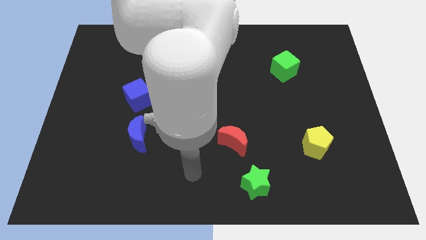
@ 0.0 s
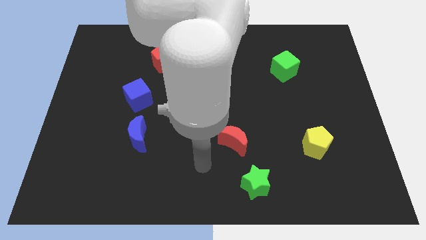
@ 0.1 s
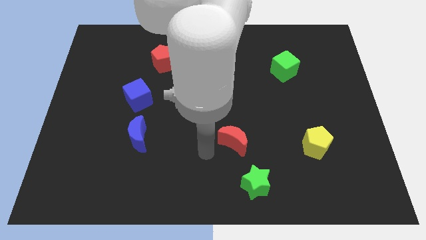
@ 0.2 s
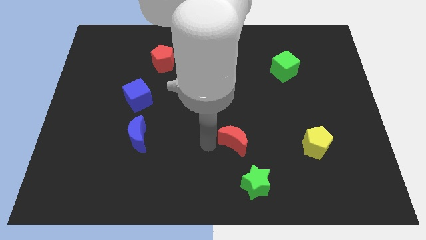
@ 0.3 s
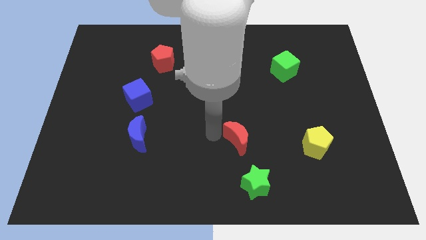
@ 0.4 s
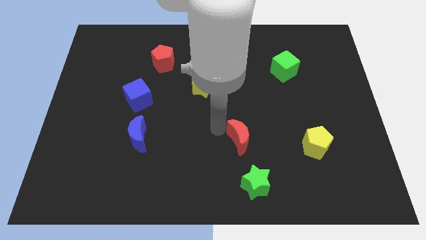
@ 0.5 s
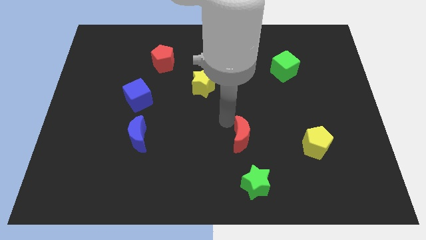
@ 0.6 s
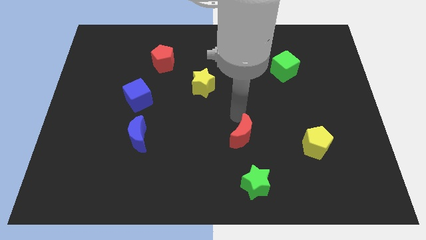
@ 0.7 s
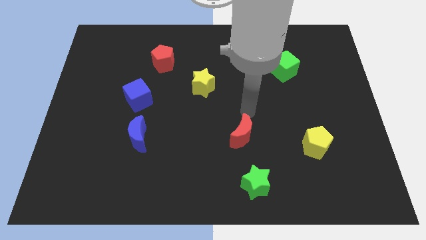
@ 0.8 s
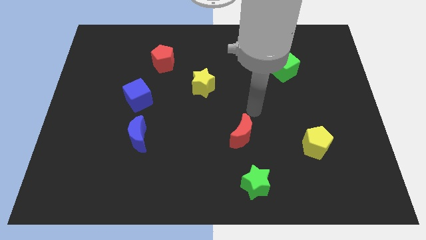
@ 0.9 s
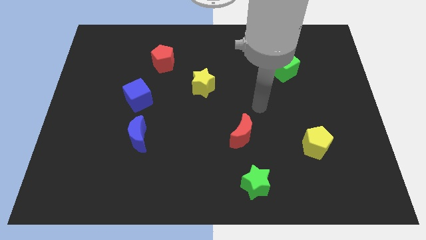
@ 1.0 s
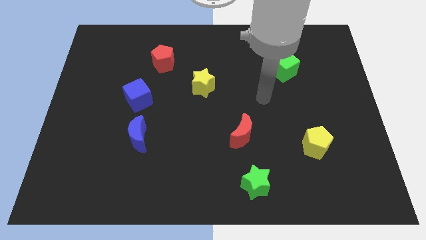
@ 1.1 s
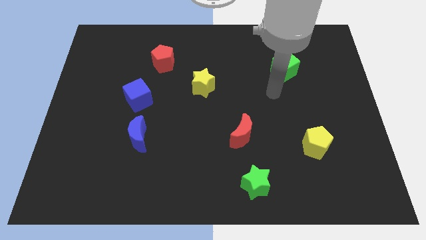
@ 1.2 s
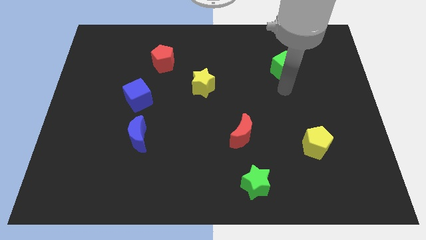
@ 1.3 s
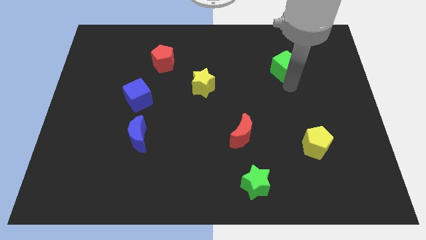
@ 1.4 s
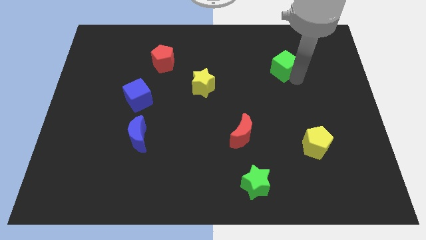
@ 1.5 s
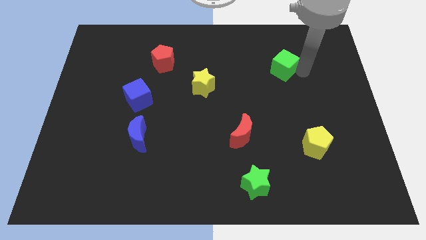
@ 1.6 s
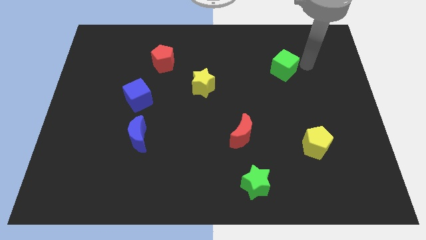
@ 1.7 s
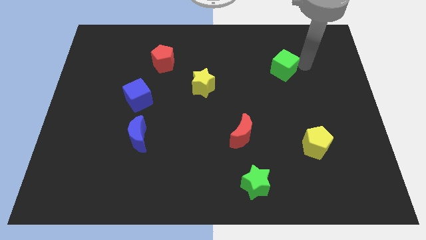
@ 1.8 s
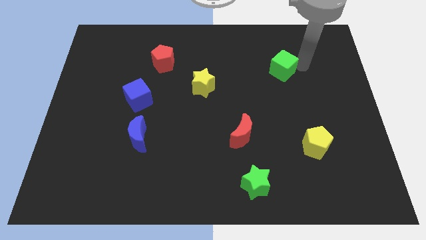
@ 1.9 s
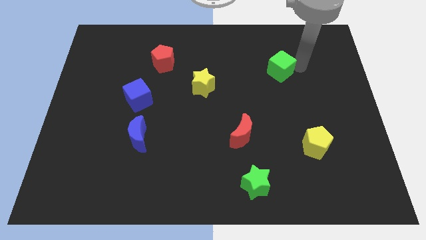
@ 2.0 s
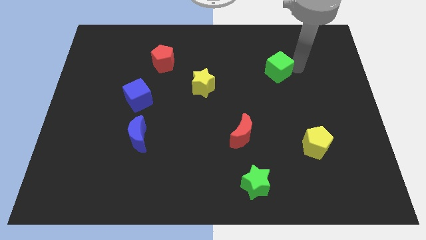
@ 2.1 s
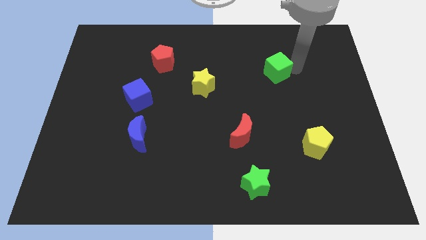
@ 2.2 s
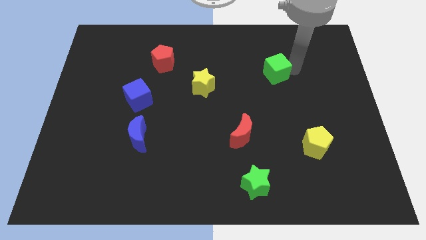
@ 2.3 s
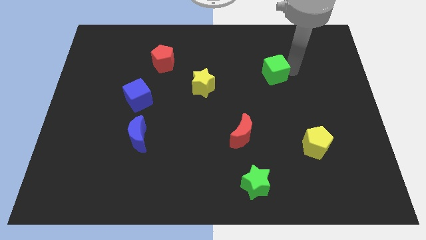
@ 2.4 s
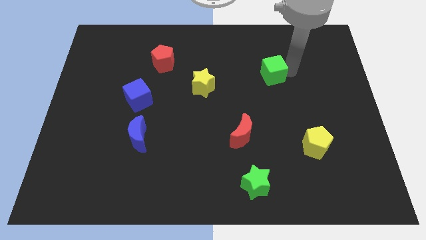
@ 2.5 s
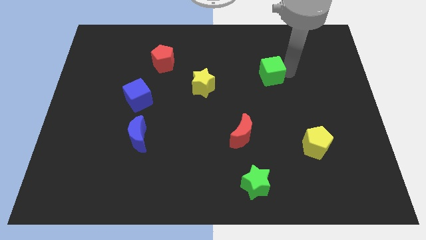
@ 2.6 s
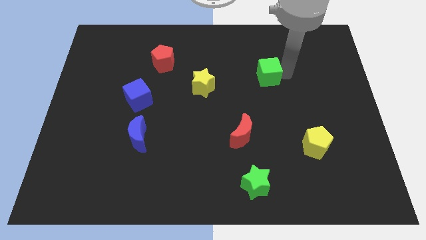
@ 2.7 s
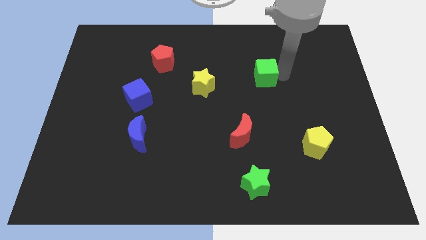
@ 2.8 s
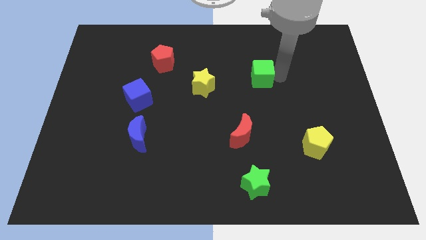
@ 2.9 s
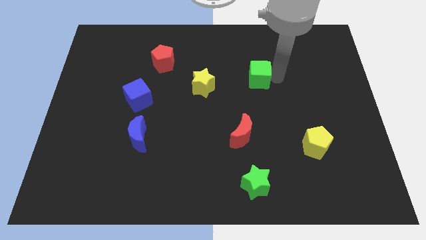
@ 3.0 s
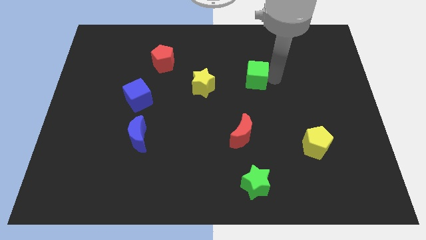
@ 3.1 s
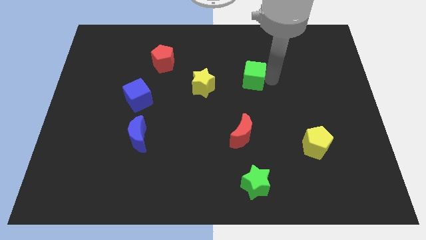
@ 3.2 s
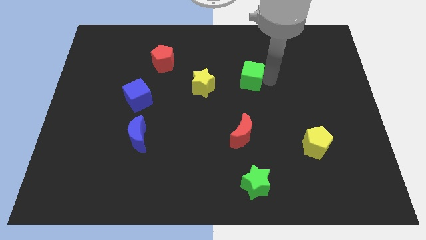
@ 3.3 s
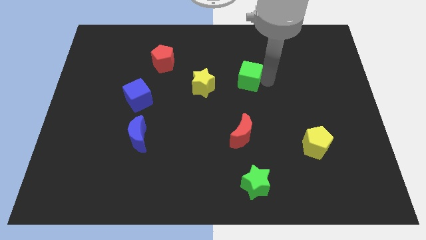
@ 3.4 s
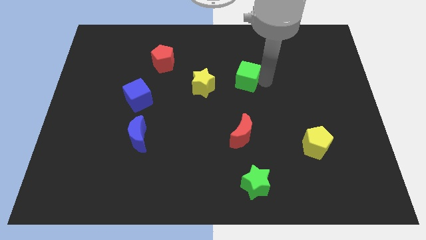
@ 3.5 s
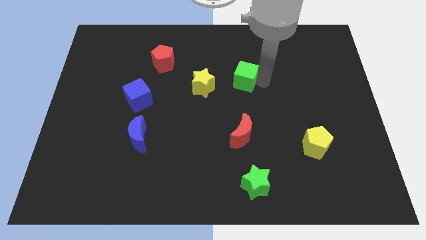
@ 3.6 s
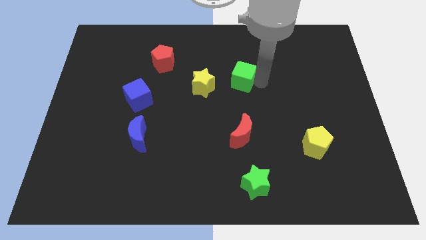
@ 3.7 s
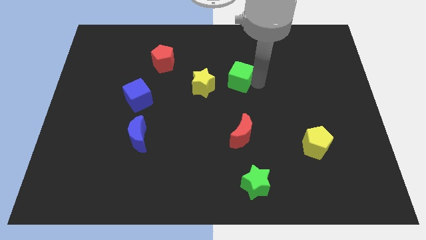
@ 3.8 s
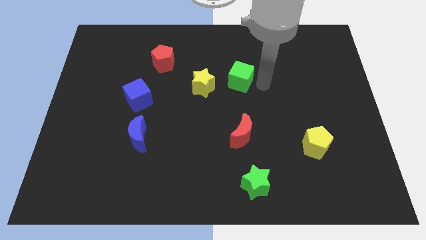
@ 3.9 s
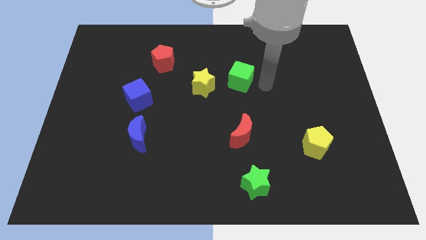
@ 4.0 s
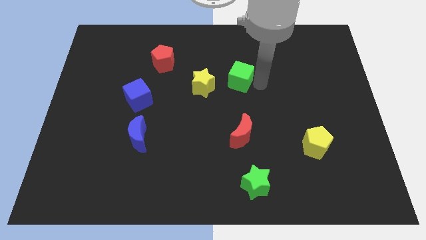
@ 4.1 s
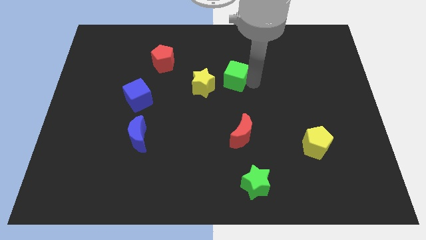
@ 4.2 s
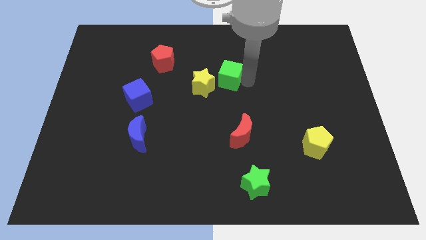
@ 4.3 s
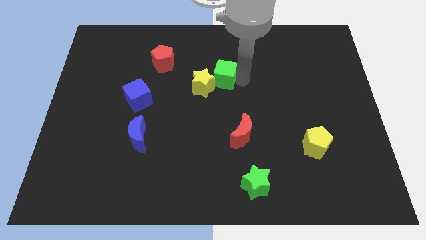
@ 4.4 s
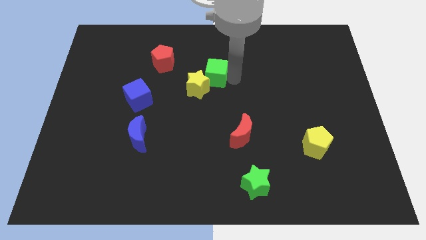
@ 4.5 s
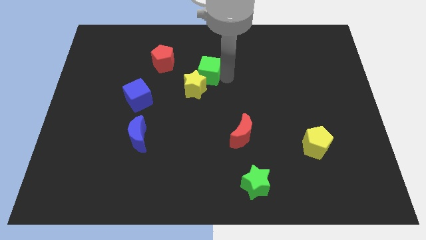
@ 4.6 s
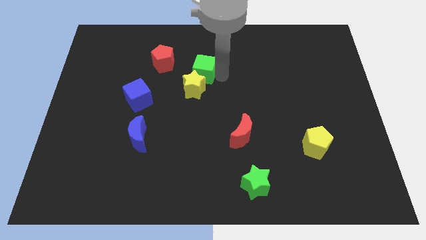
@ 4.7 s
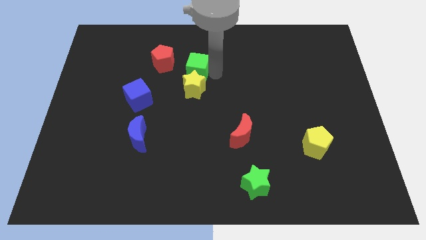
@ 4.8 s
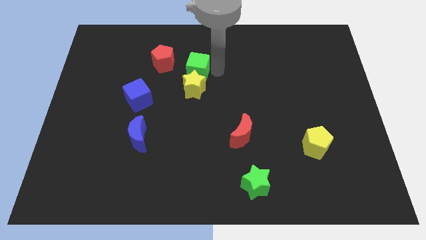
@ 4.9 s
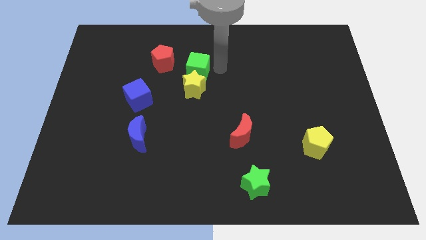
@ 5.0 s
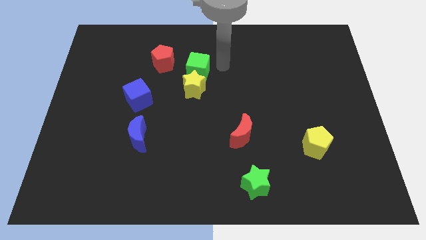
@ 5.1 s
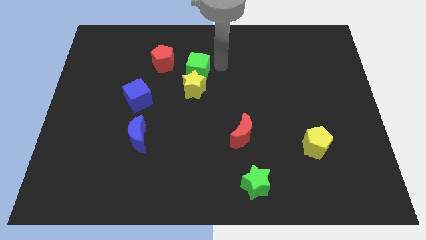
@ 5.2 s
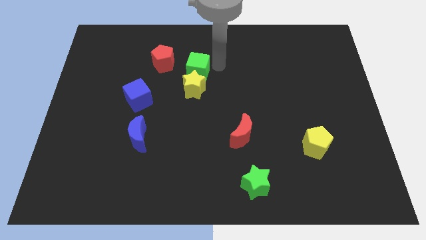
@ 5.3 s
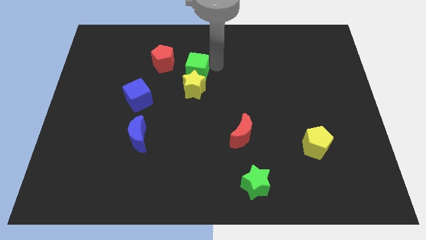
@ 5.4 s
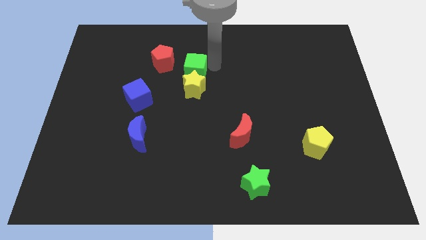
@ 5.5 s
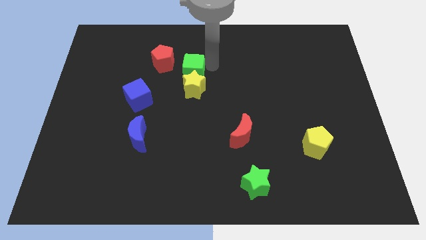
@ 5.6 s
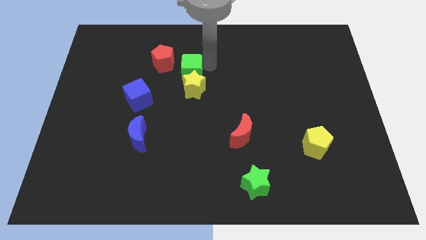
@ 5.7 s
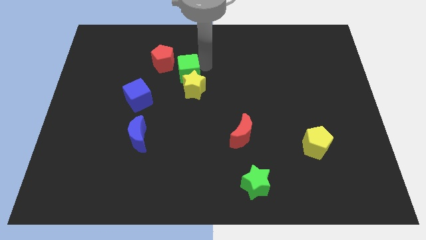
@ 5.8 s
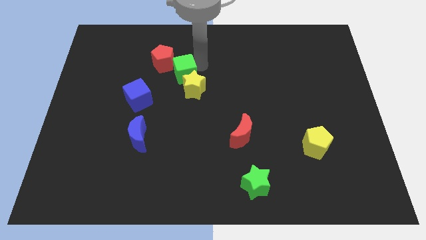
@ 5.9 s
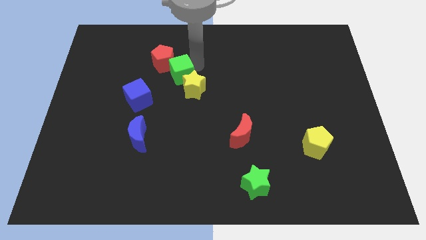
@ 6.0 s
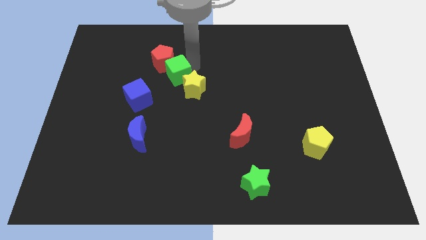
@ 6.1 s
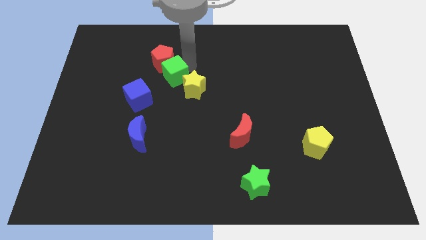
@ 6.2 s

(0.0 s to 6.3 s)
slide the green cube to the left of the yellow star

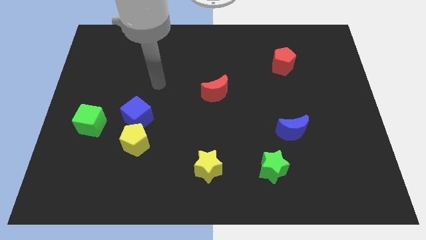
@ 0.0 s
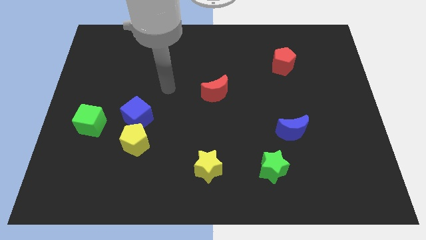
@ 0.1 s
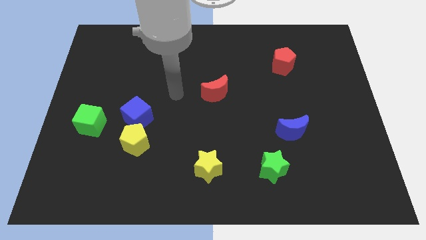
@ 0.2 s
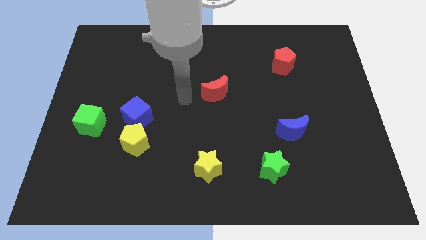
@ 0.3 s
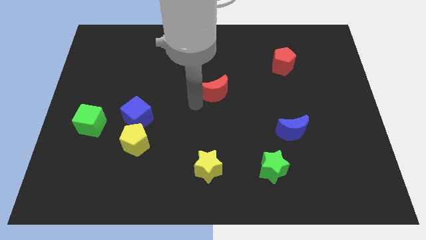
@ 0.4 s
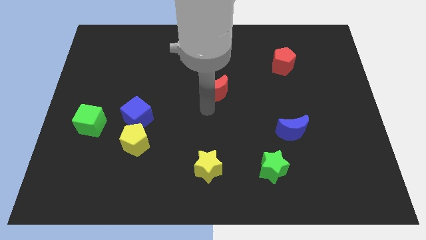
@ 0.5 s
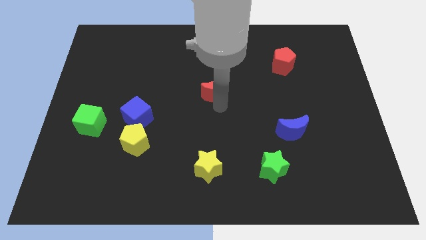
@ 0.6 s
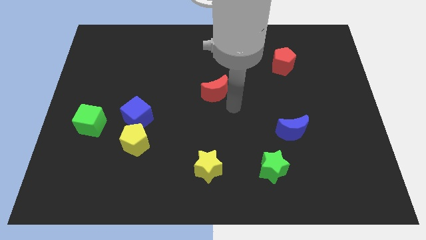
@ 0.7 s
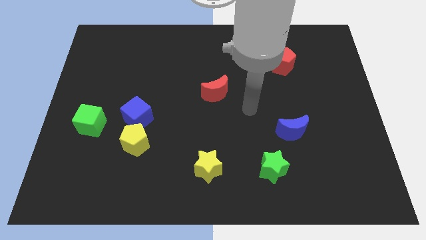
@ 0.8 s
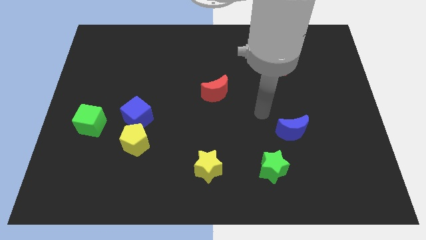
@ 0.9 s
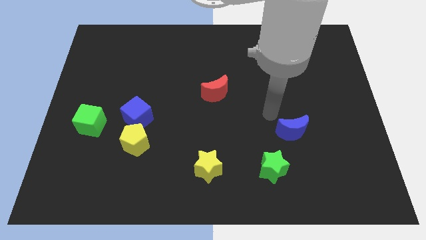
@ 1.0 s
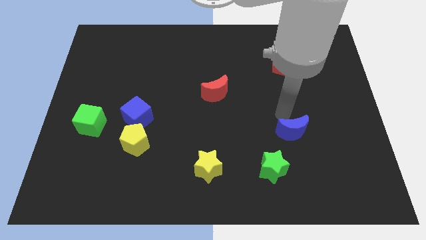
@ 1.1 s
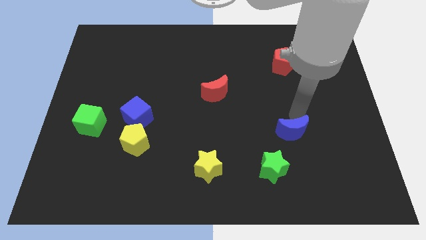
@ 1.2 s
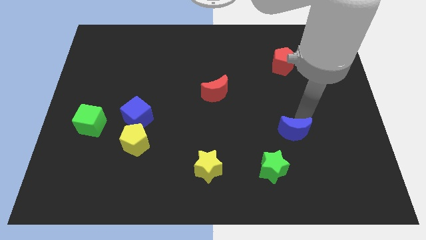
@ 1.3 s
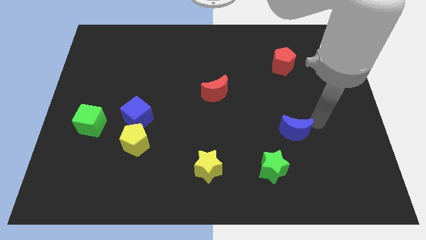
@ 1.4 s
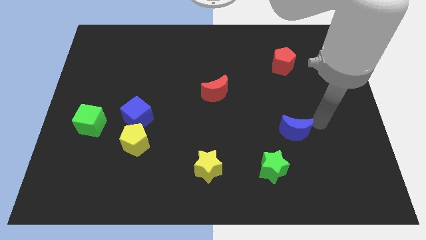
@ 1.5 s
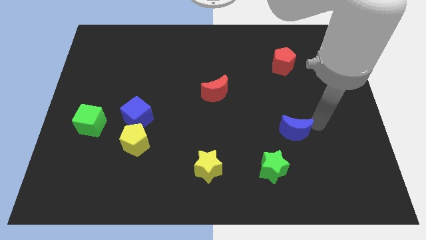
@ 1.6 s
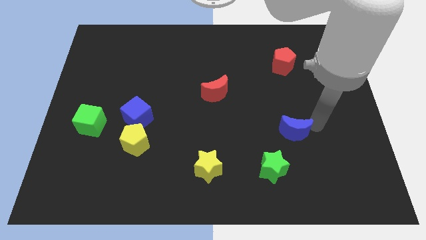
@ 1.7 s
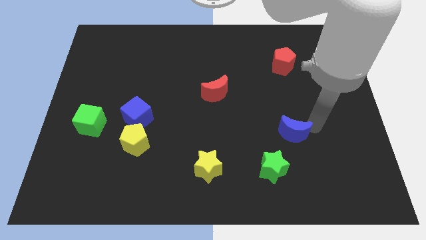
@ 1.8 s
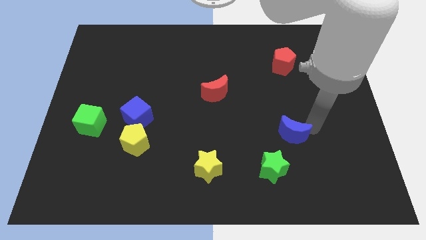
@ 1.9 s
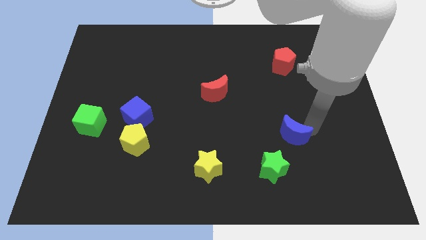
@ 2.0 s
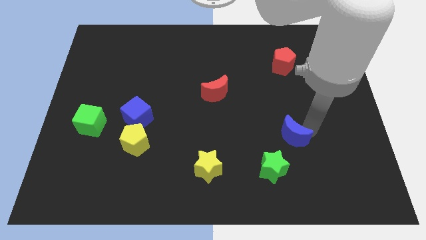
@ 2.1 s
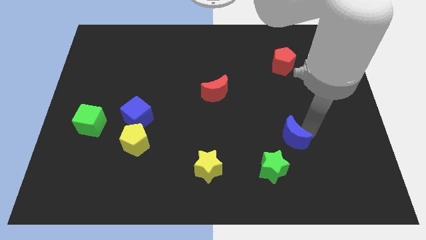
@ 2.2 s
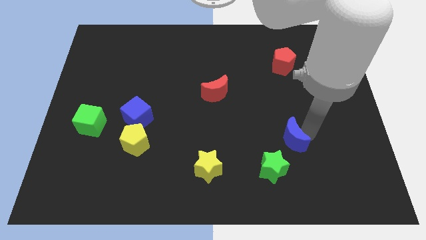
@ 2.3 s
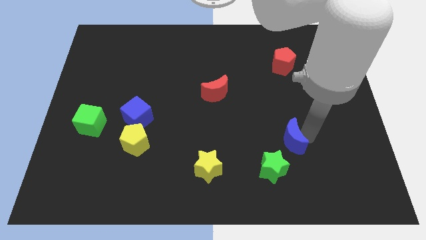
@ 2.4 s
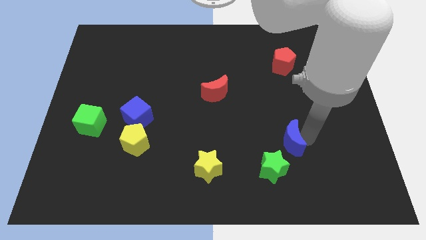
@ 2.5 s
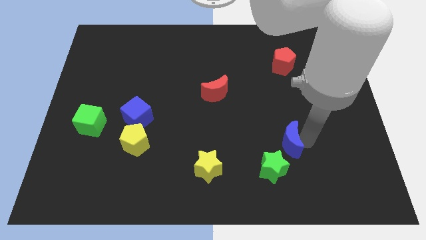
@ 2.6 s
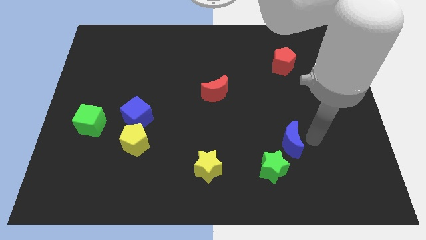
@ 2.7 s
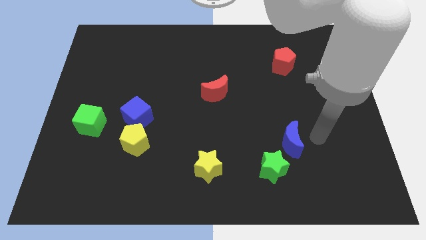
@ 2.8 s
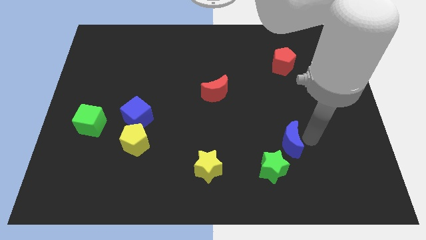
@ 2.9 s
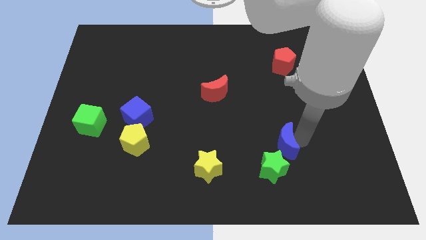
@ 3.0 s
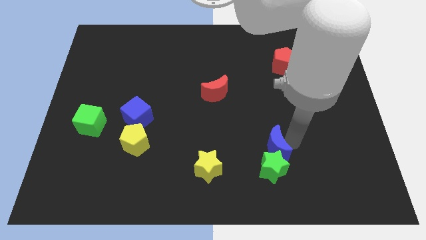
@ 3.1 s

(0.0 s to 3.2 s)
move the blue moon diagonally up and to the left of the green star
